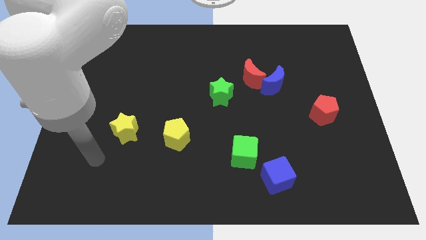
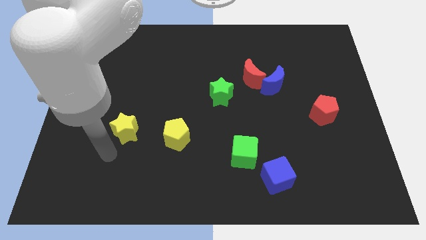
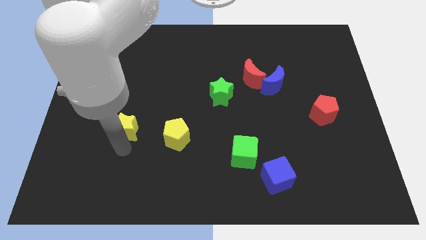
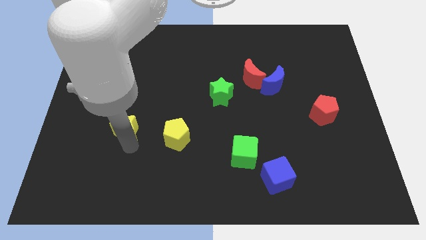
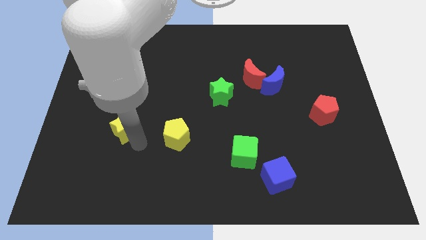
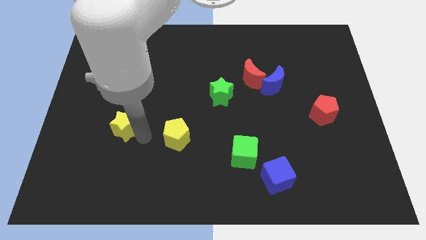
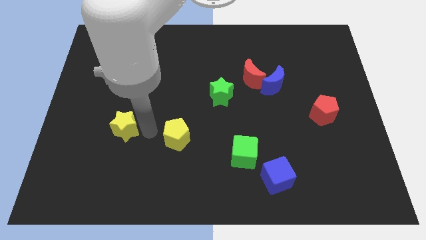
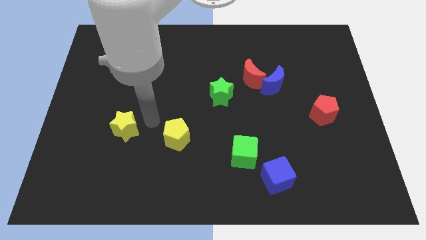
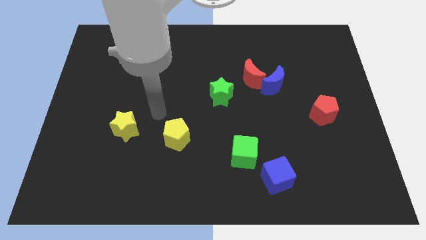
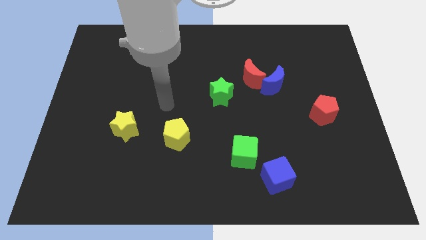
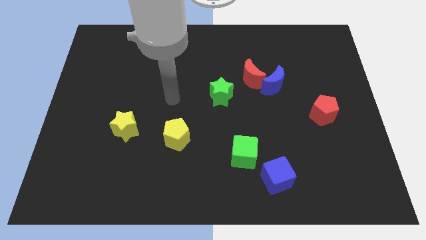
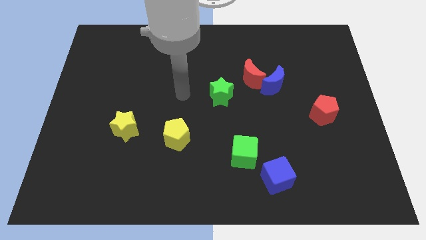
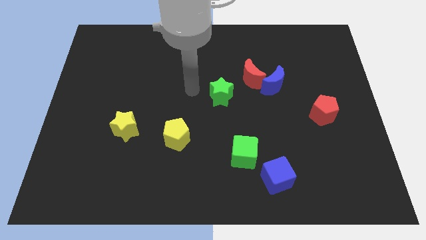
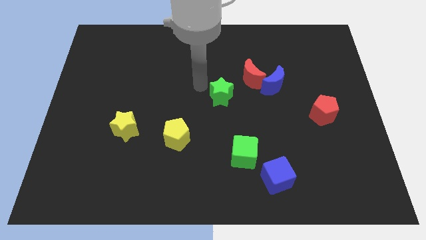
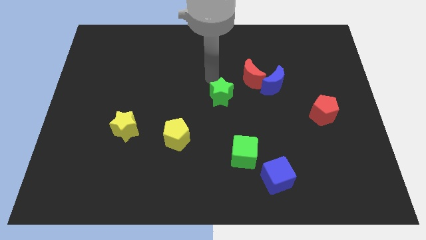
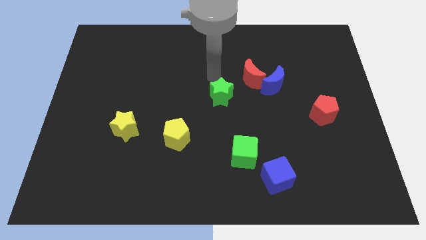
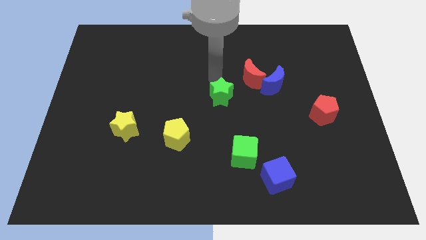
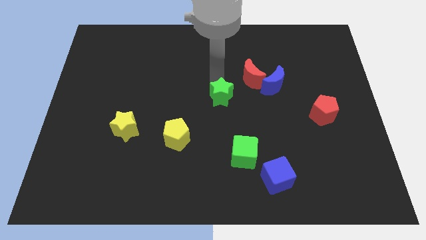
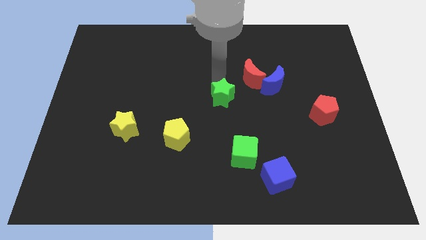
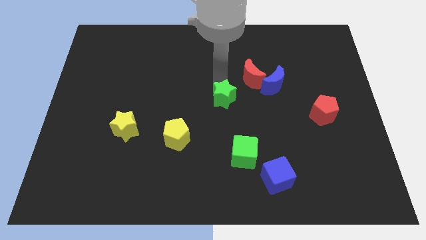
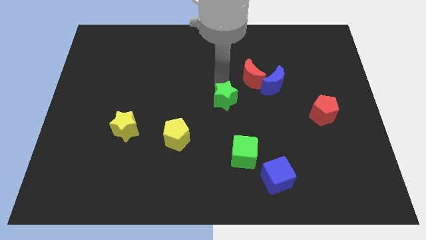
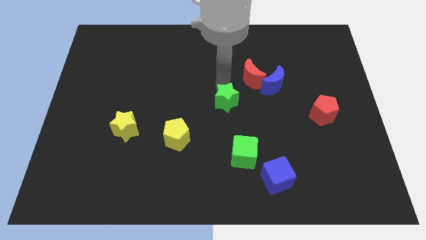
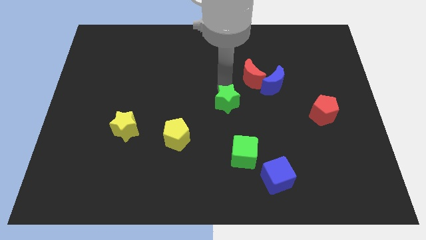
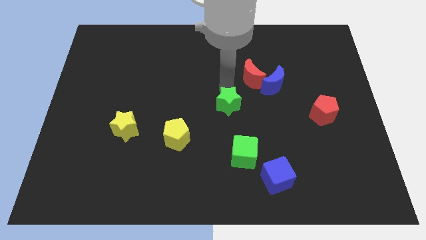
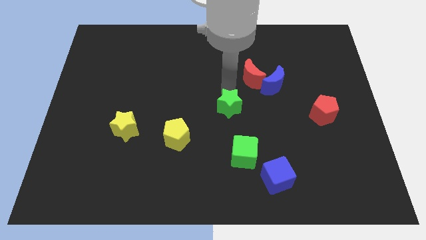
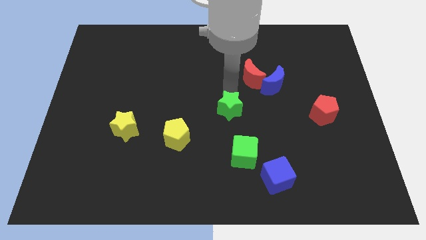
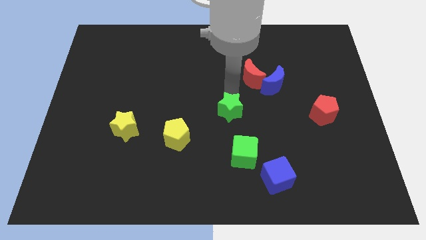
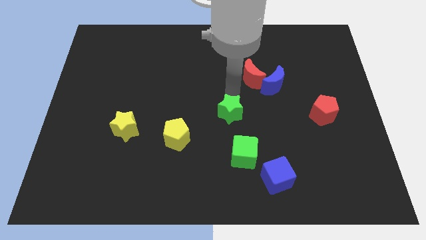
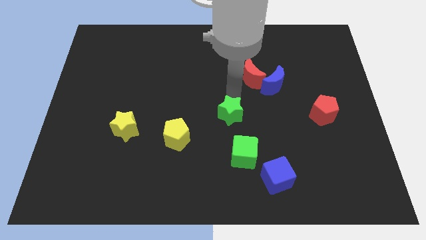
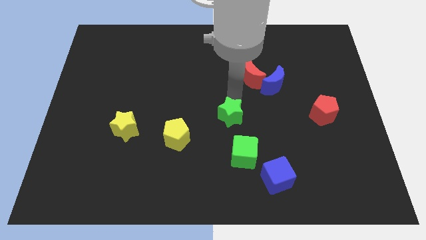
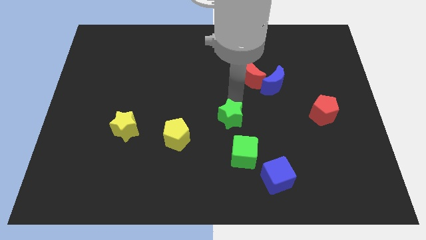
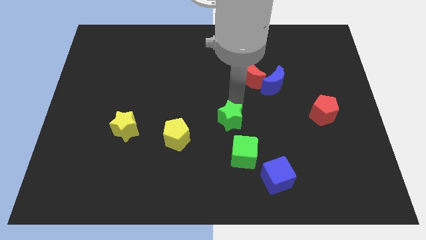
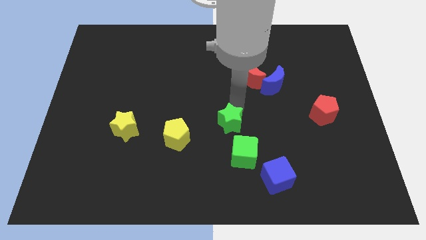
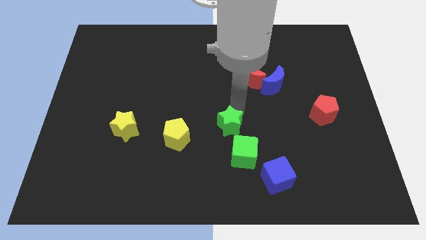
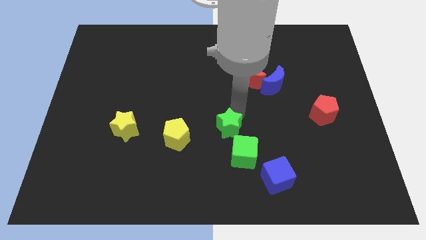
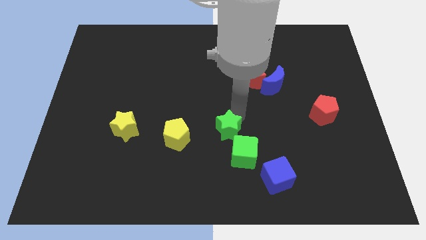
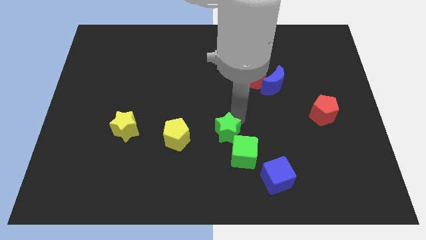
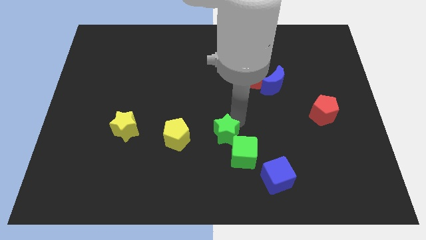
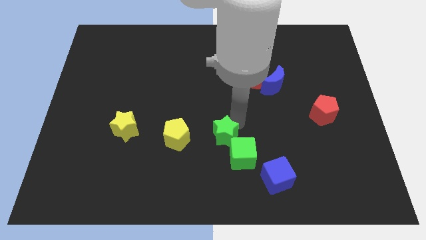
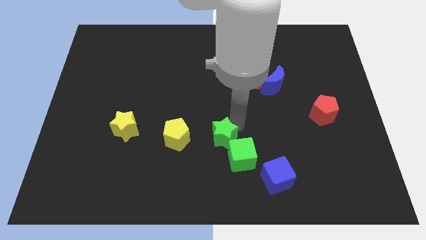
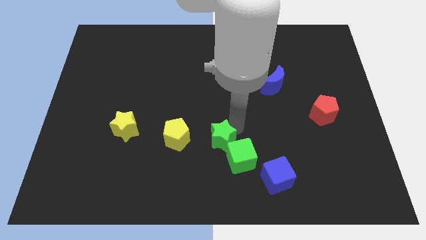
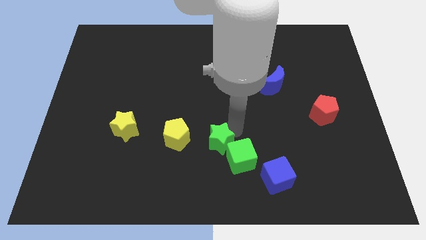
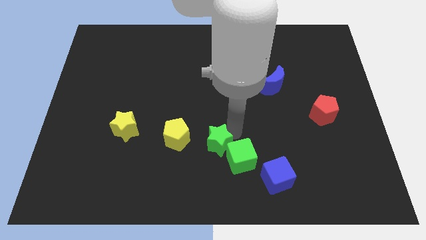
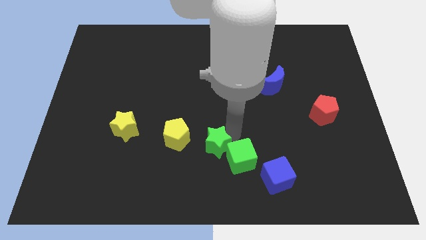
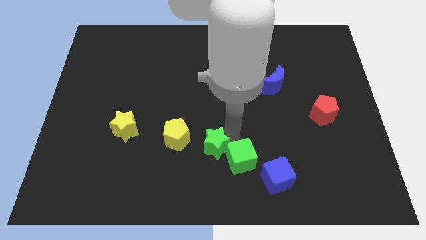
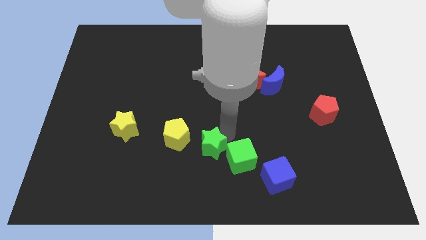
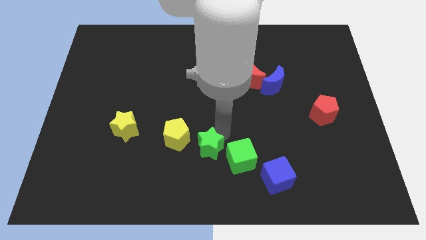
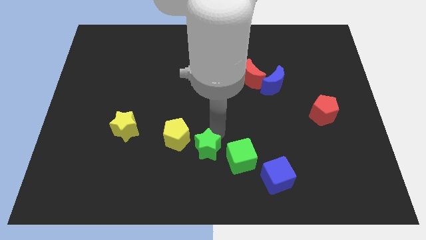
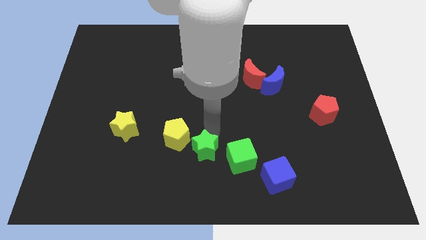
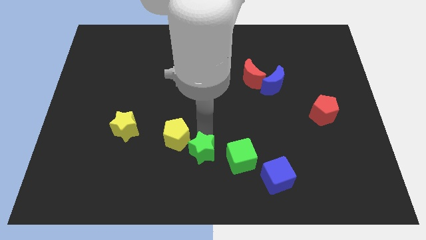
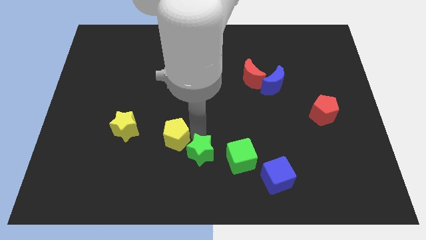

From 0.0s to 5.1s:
push the green star to the bottom

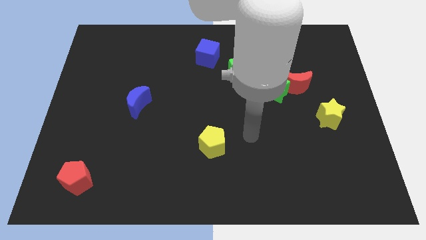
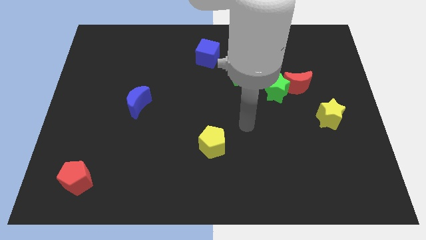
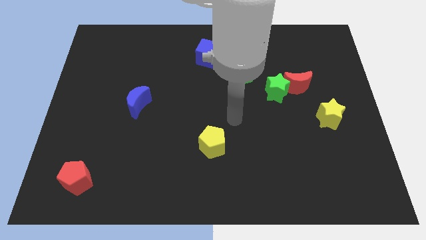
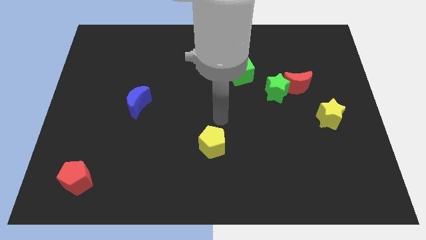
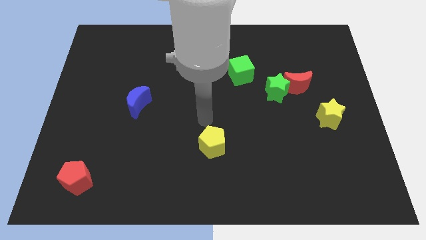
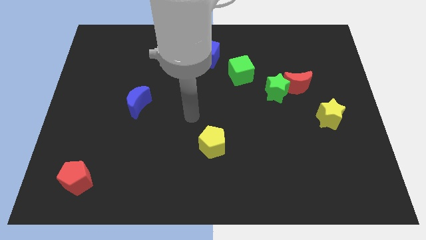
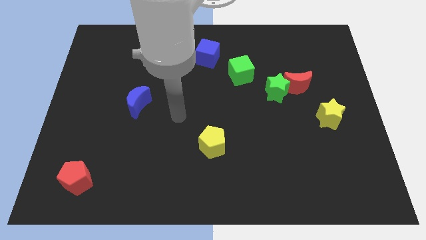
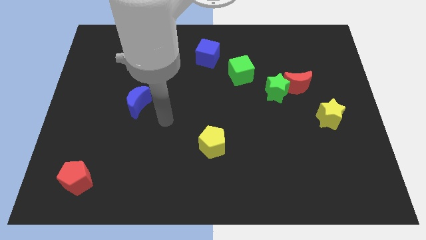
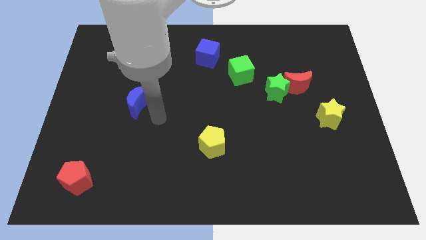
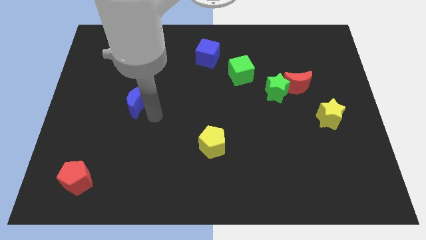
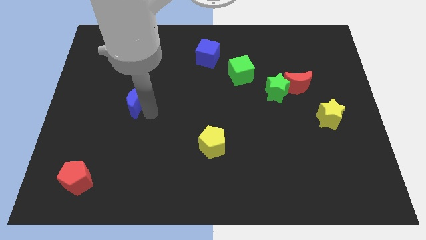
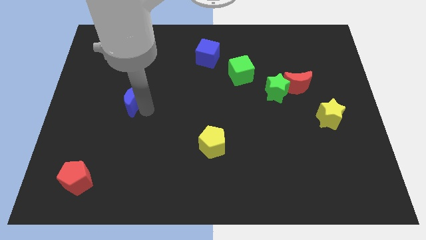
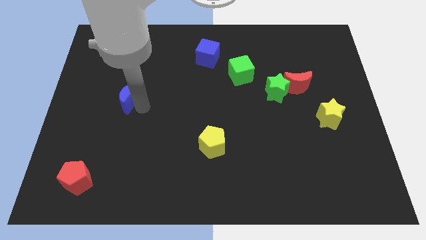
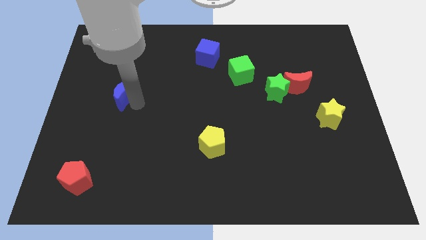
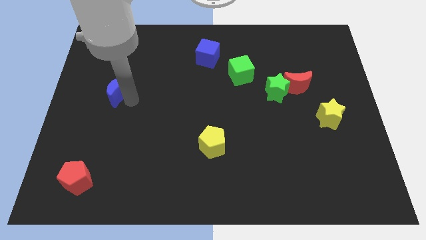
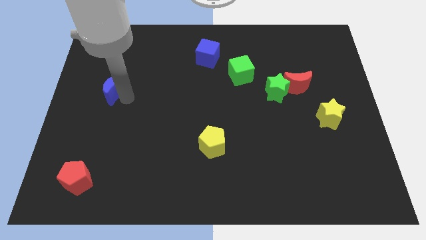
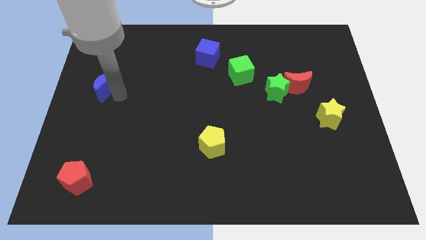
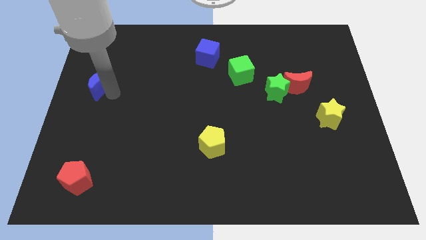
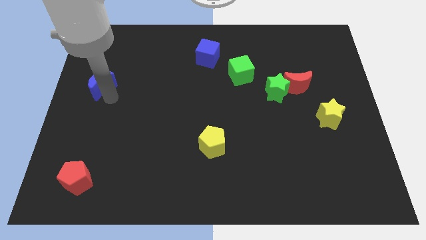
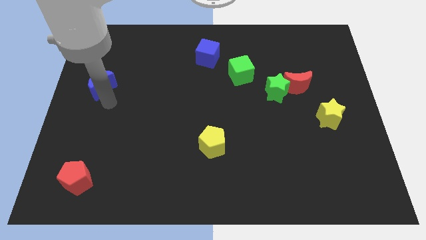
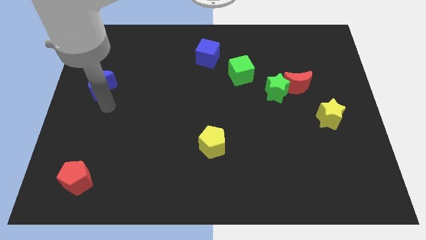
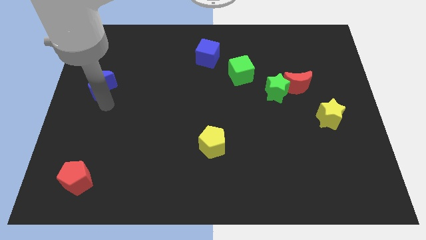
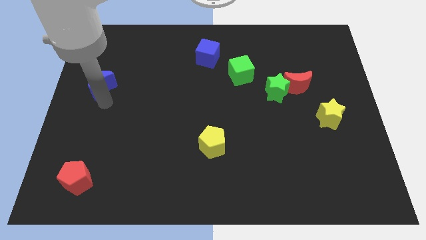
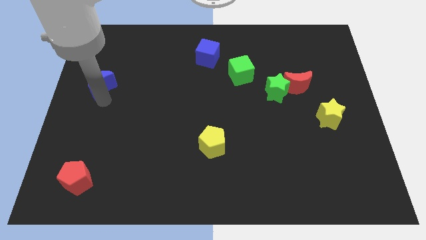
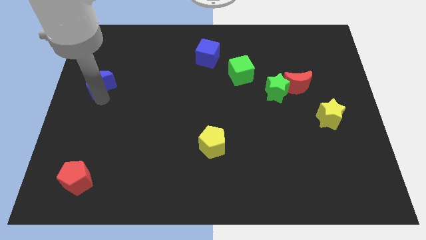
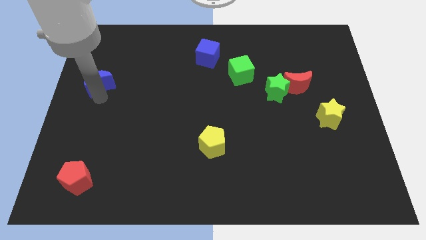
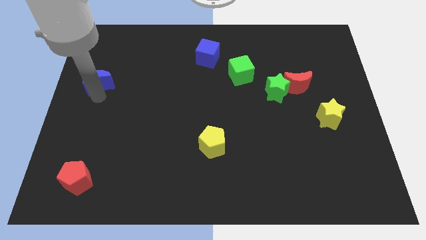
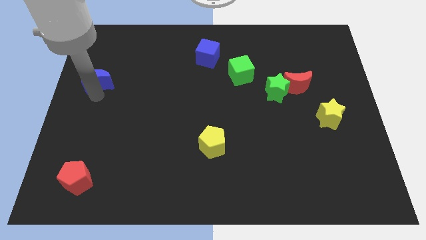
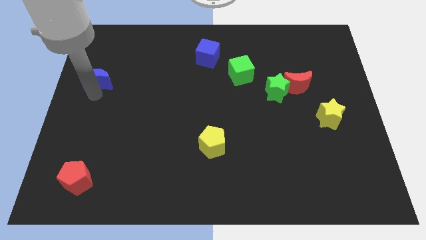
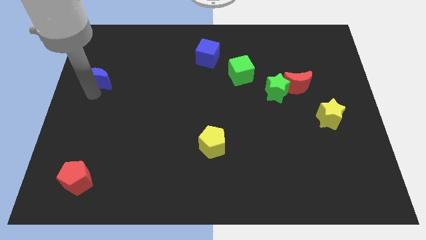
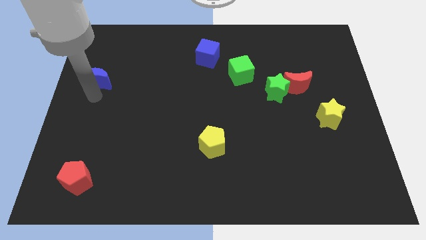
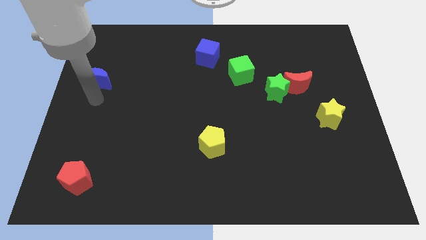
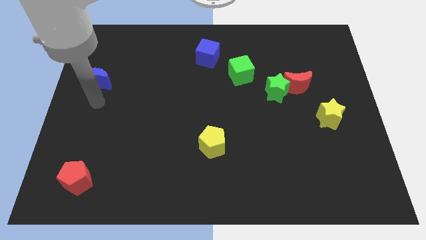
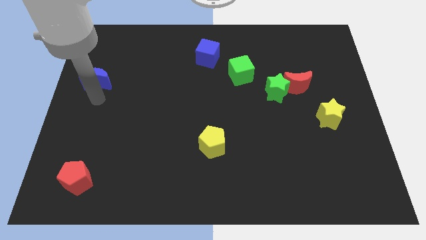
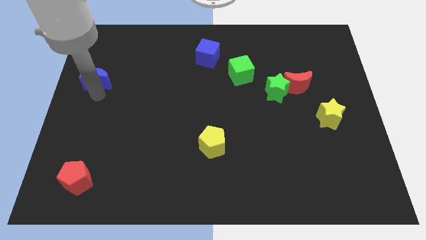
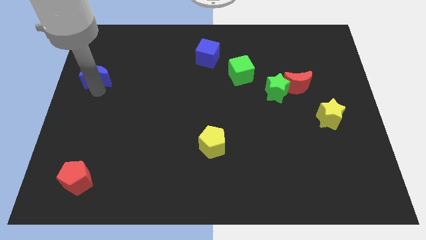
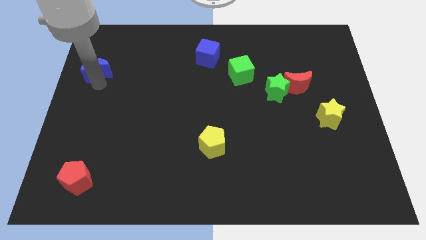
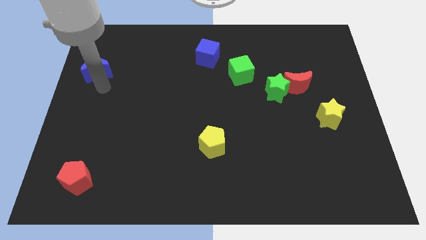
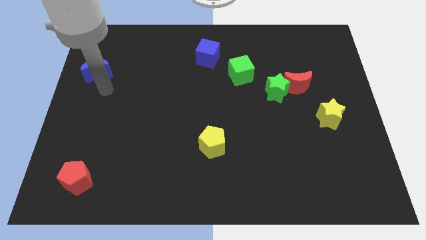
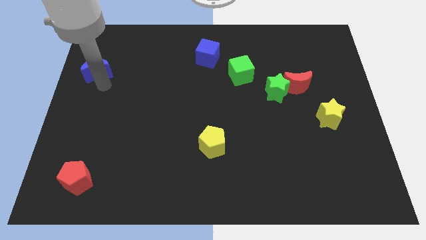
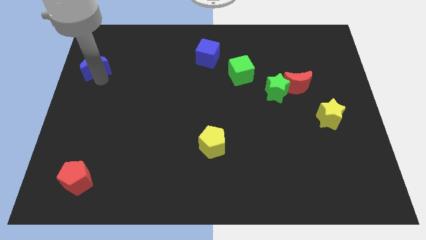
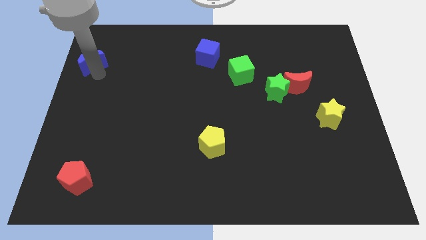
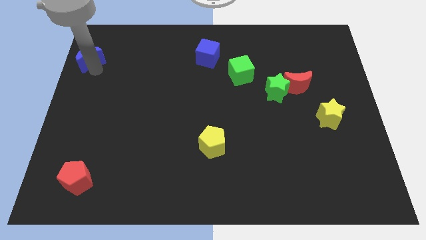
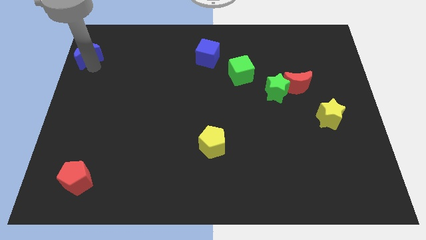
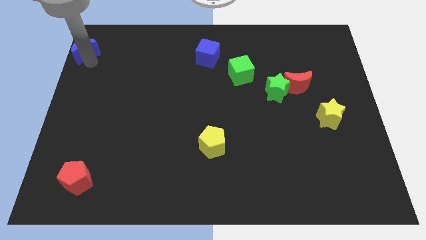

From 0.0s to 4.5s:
move the blue moon to the upper left corner
